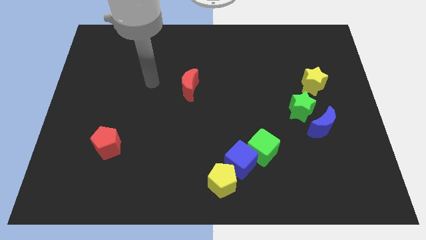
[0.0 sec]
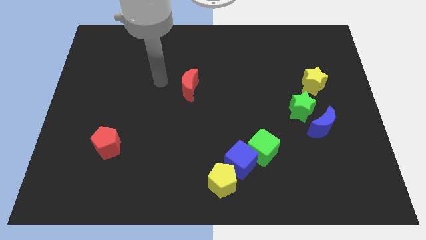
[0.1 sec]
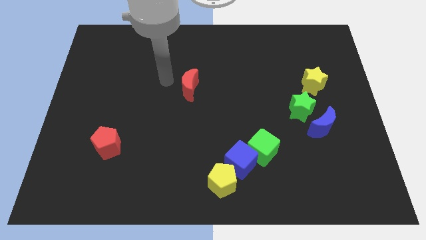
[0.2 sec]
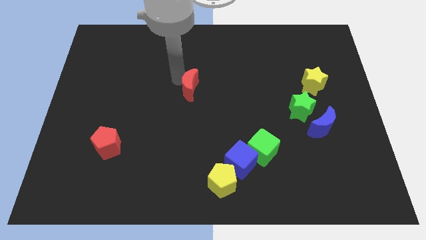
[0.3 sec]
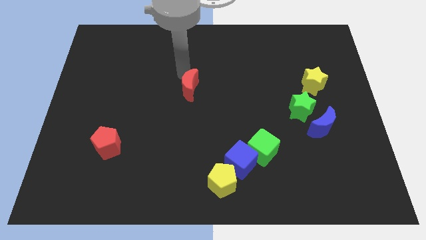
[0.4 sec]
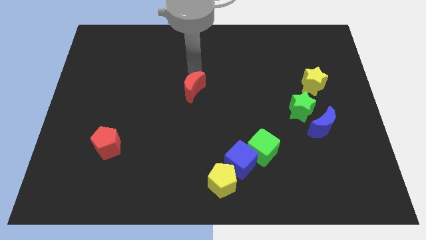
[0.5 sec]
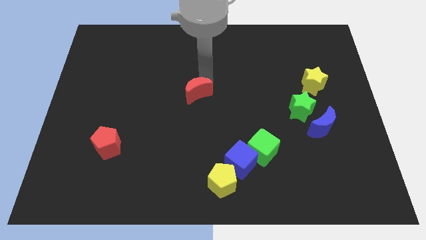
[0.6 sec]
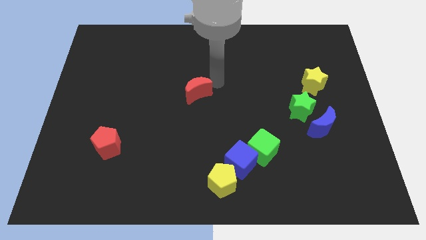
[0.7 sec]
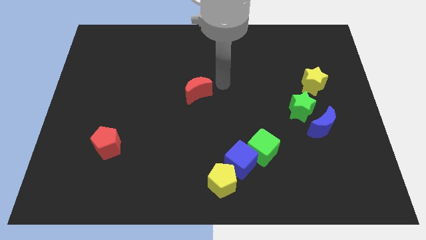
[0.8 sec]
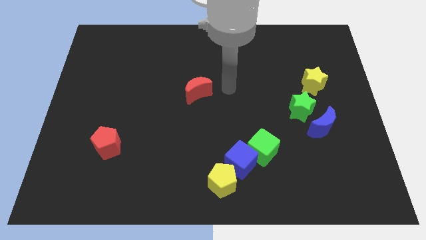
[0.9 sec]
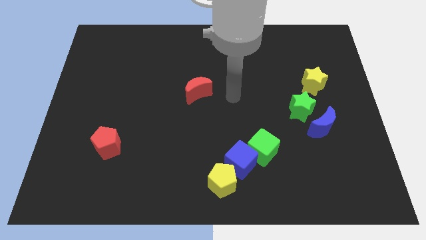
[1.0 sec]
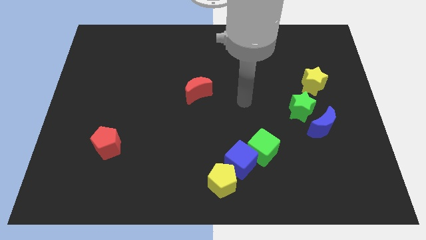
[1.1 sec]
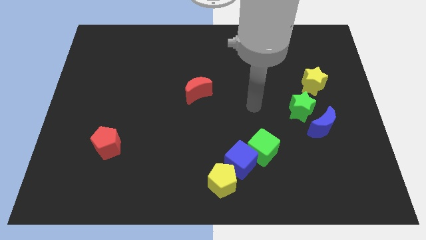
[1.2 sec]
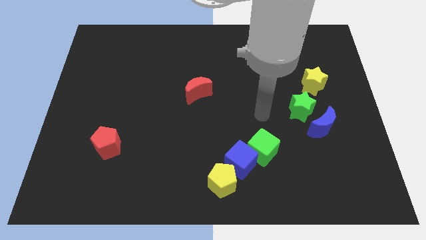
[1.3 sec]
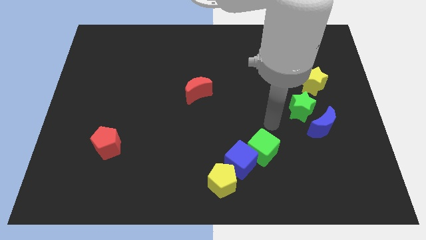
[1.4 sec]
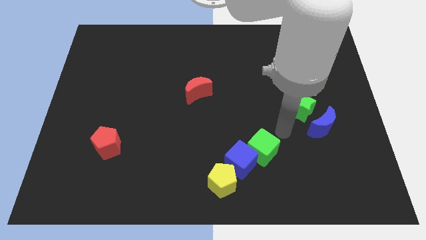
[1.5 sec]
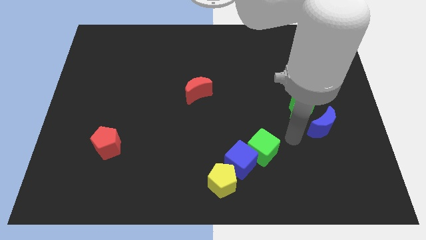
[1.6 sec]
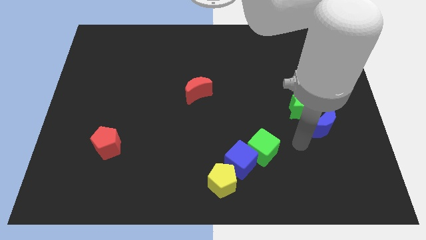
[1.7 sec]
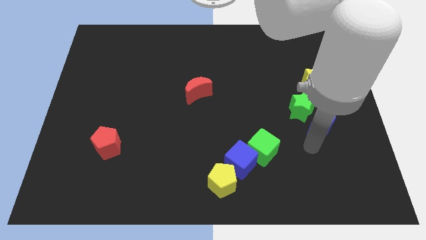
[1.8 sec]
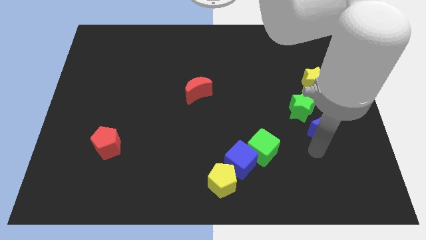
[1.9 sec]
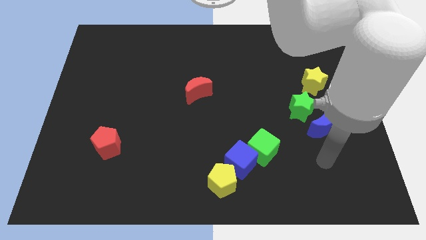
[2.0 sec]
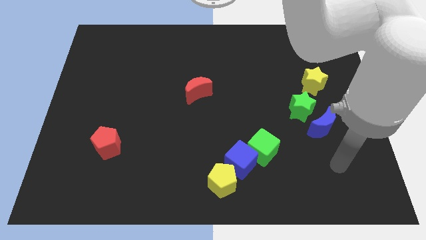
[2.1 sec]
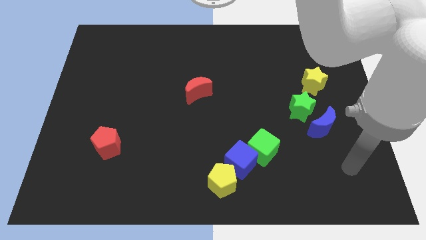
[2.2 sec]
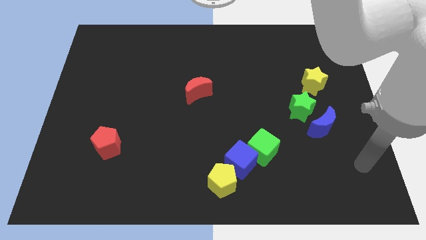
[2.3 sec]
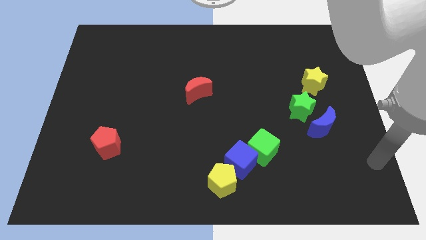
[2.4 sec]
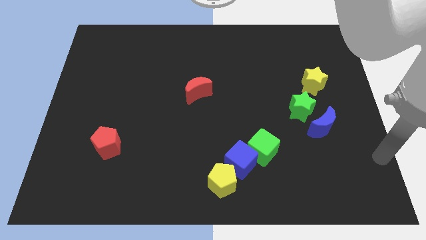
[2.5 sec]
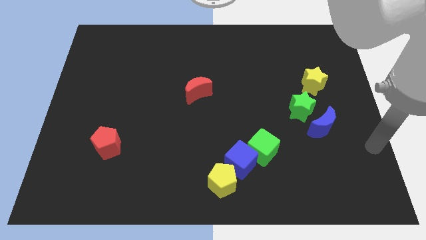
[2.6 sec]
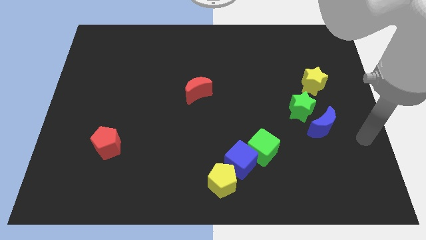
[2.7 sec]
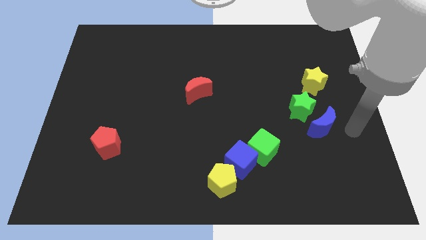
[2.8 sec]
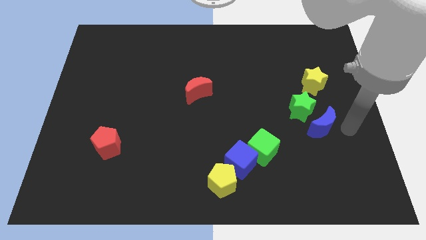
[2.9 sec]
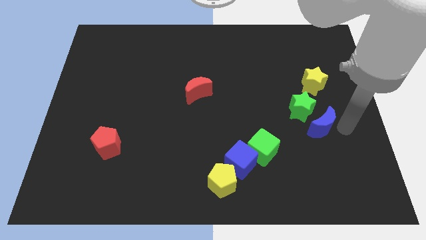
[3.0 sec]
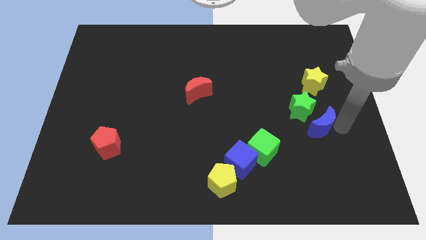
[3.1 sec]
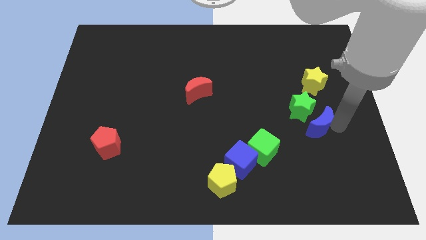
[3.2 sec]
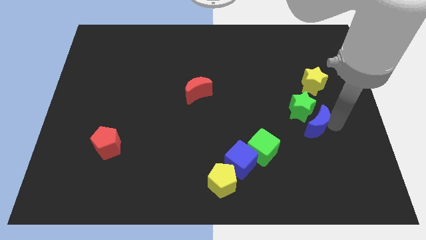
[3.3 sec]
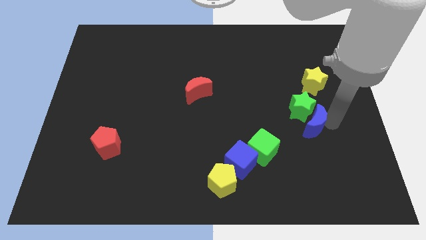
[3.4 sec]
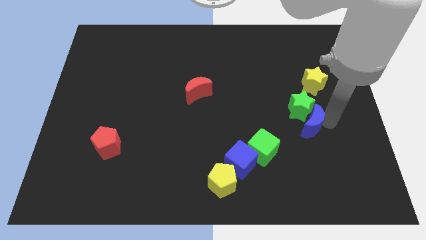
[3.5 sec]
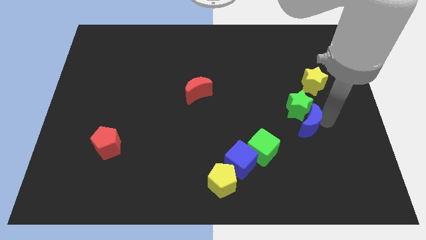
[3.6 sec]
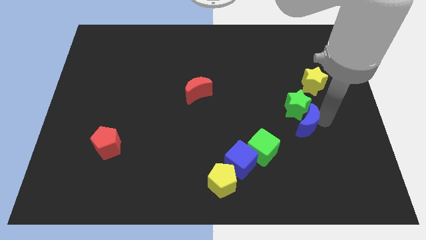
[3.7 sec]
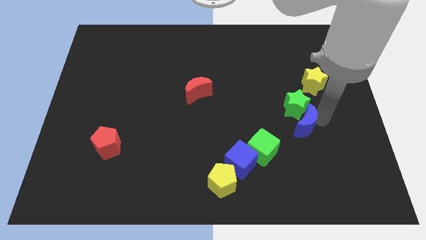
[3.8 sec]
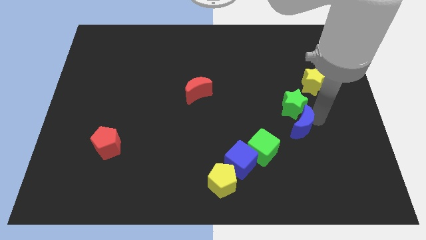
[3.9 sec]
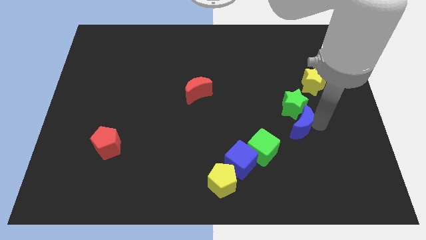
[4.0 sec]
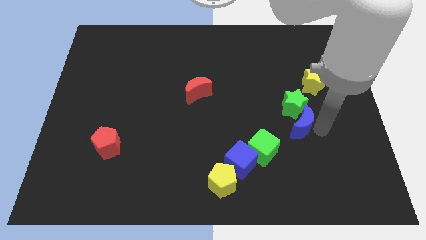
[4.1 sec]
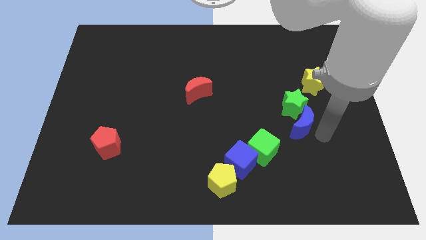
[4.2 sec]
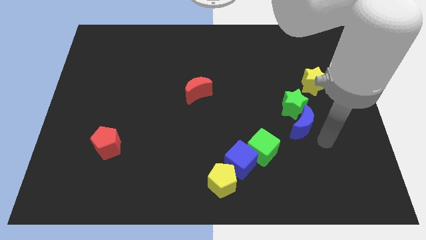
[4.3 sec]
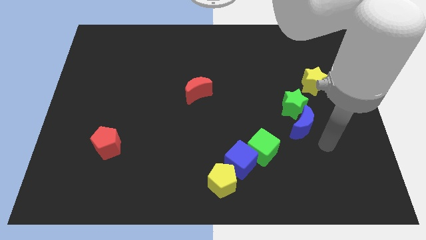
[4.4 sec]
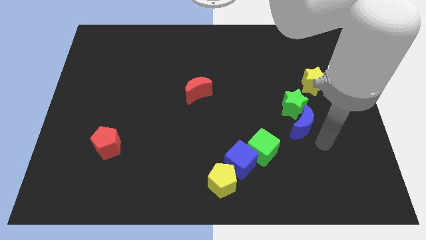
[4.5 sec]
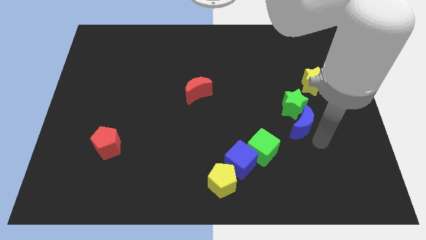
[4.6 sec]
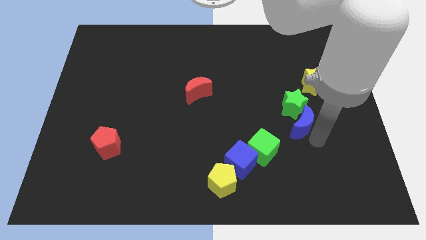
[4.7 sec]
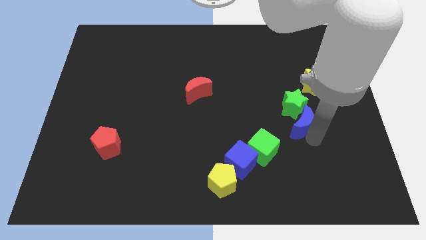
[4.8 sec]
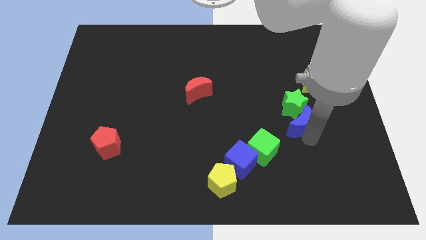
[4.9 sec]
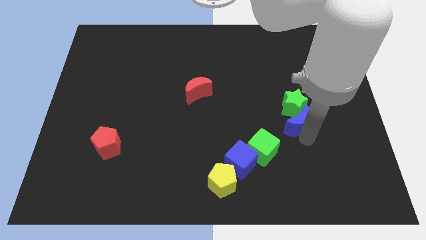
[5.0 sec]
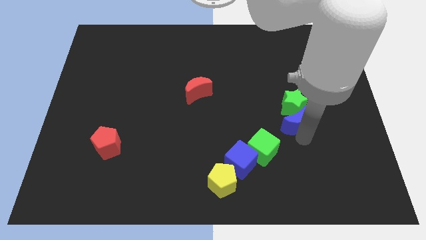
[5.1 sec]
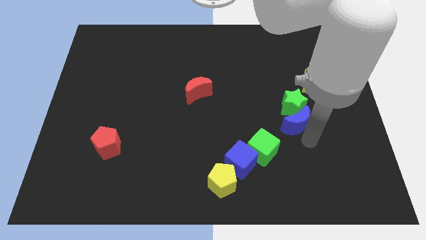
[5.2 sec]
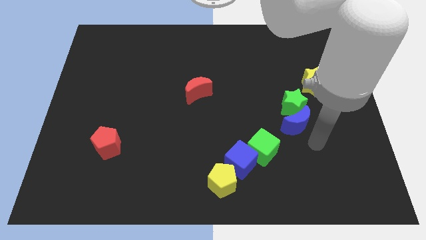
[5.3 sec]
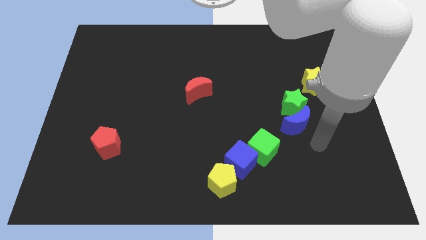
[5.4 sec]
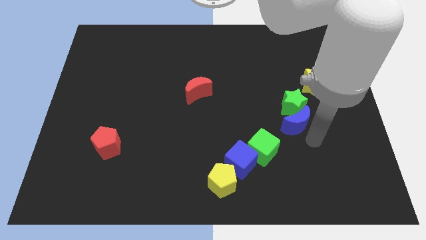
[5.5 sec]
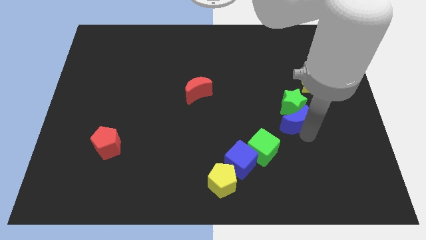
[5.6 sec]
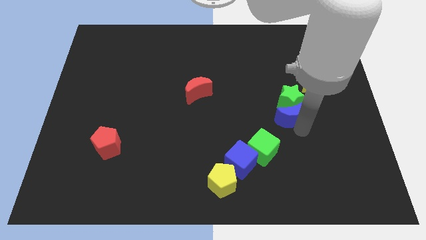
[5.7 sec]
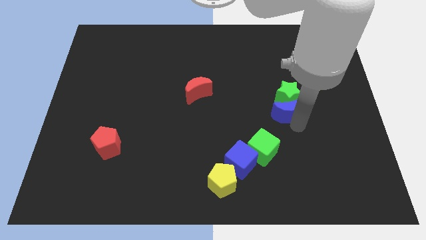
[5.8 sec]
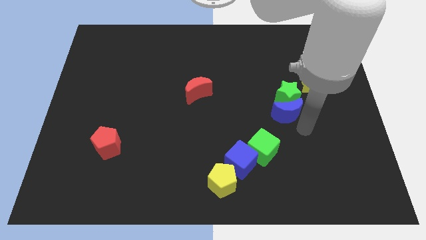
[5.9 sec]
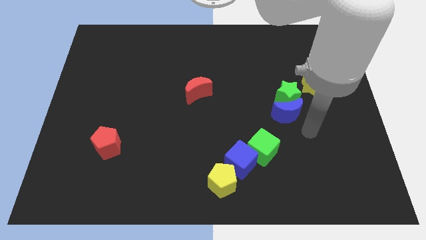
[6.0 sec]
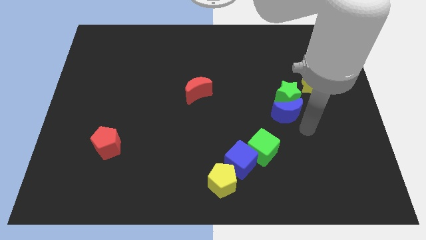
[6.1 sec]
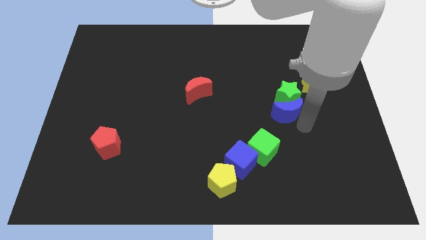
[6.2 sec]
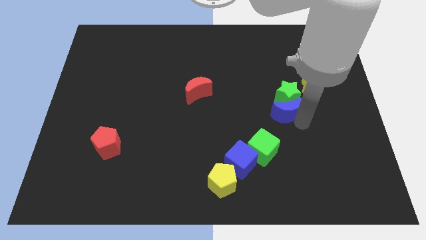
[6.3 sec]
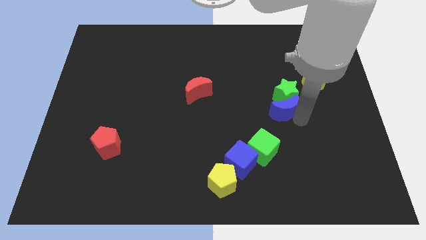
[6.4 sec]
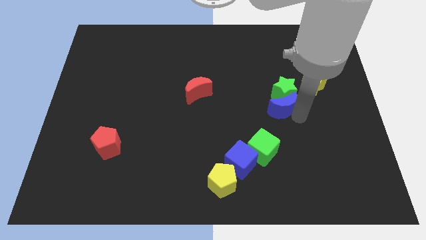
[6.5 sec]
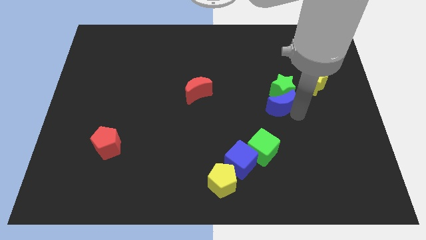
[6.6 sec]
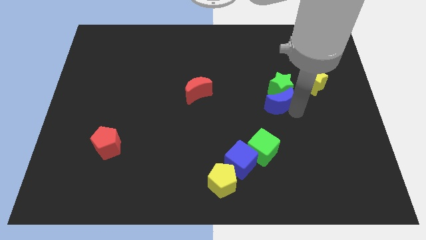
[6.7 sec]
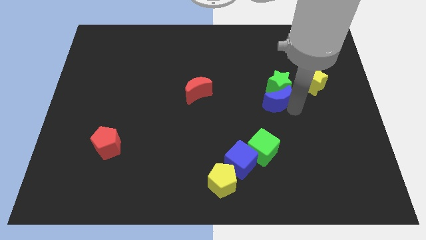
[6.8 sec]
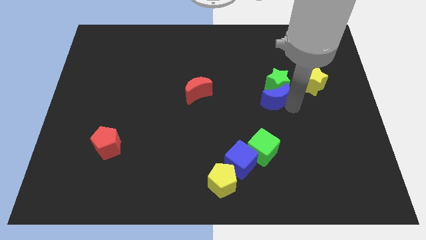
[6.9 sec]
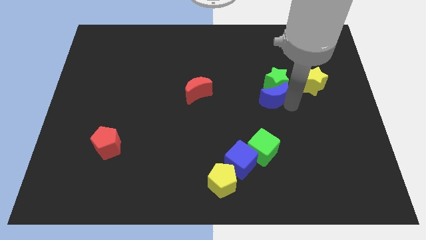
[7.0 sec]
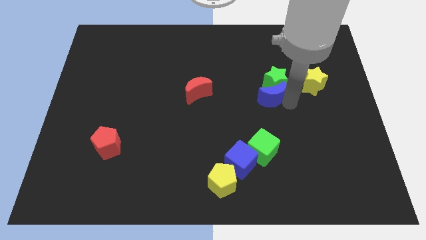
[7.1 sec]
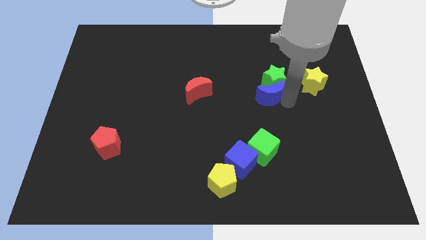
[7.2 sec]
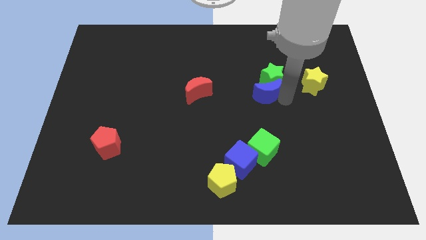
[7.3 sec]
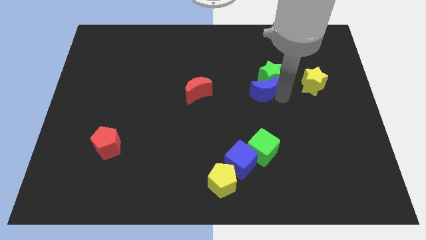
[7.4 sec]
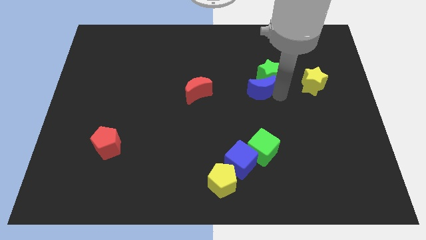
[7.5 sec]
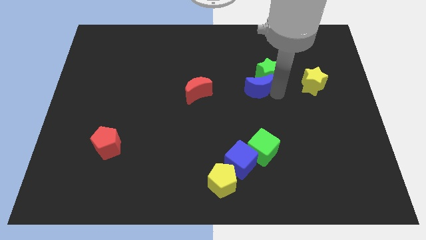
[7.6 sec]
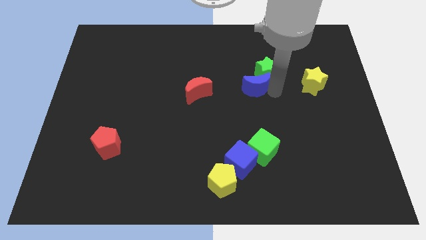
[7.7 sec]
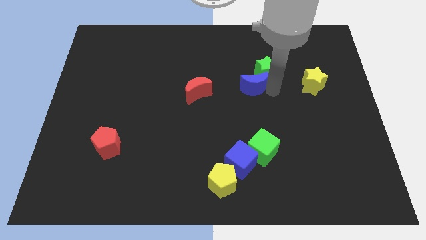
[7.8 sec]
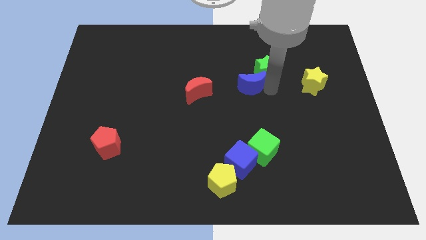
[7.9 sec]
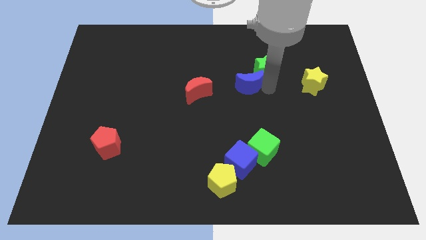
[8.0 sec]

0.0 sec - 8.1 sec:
slide the blue moon upwards and to the left

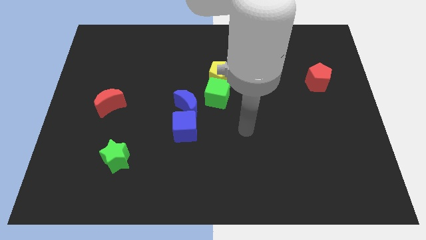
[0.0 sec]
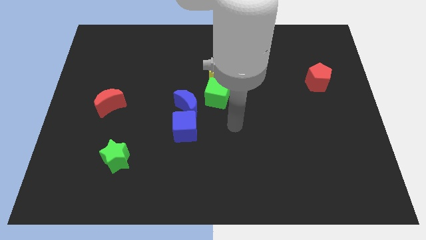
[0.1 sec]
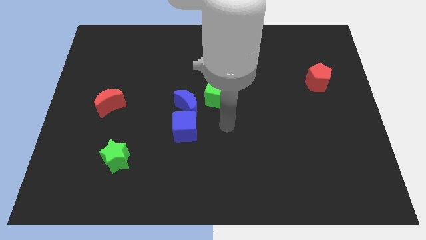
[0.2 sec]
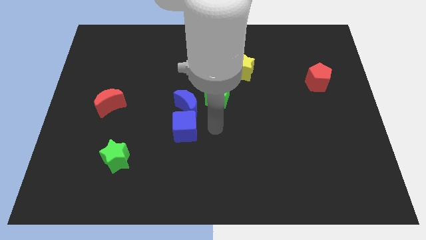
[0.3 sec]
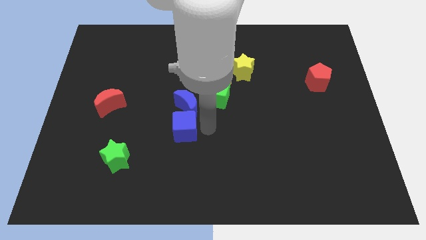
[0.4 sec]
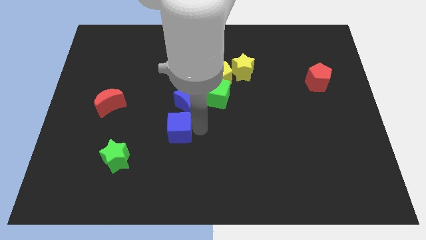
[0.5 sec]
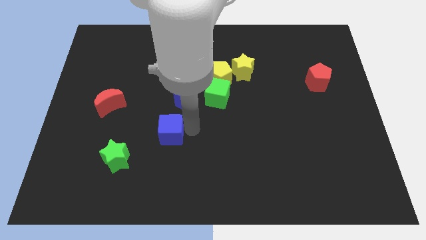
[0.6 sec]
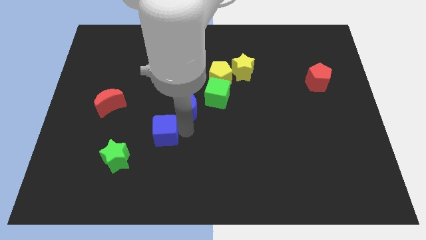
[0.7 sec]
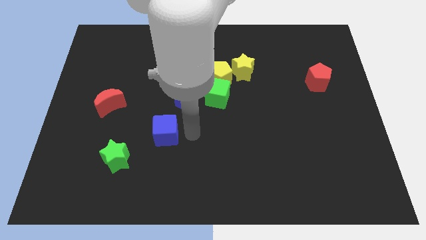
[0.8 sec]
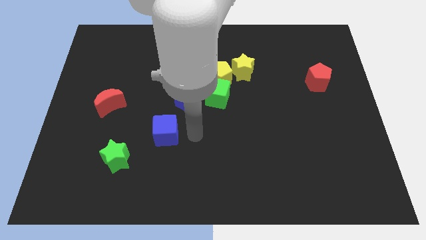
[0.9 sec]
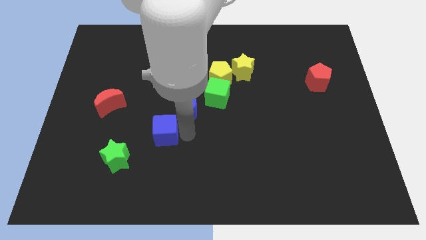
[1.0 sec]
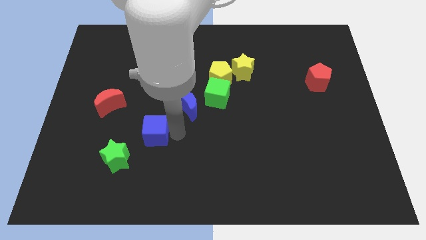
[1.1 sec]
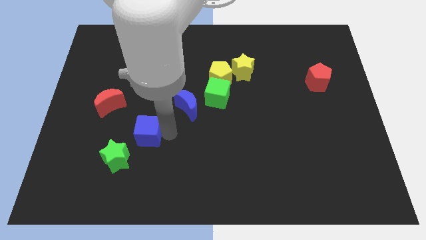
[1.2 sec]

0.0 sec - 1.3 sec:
push the blue cube left a bit
